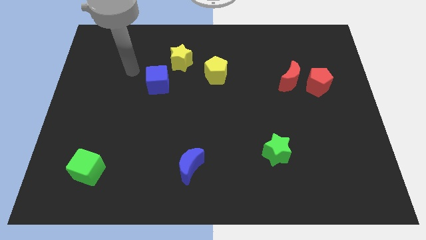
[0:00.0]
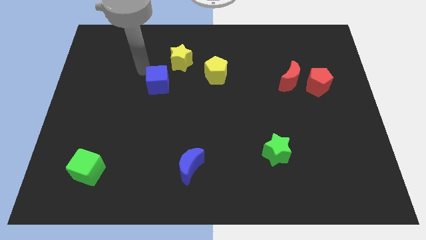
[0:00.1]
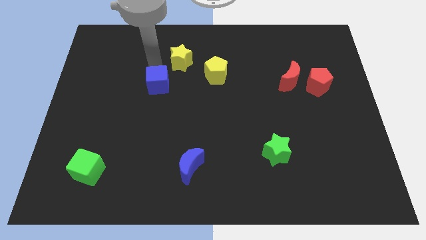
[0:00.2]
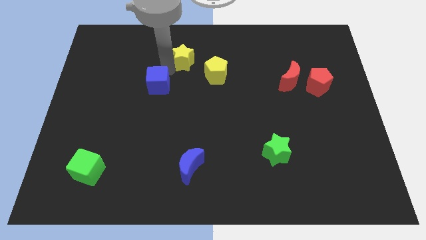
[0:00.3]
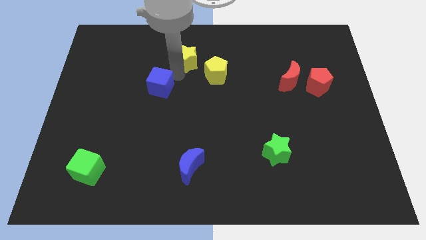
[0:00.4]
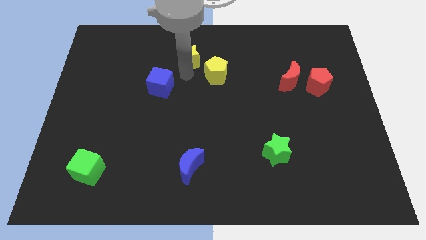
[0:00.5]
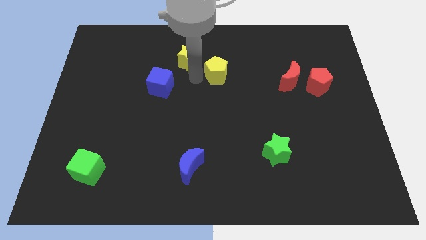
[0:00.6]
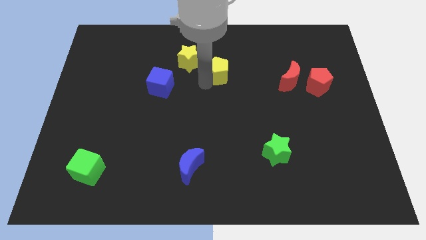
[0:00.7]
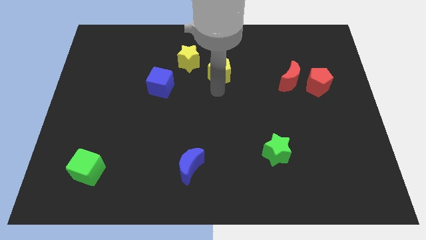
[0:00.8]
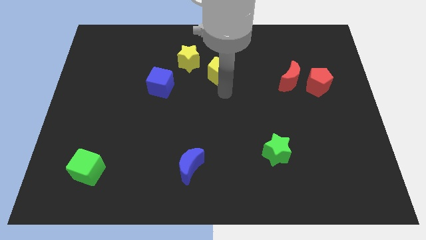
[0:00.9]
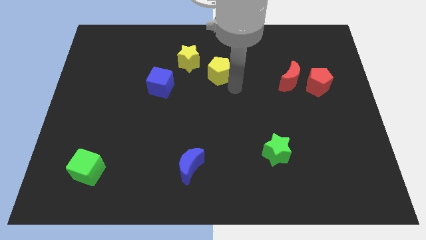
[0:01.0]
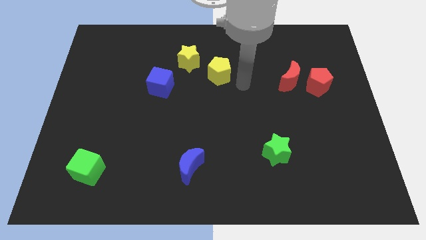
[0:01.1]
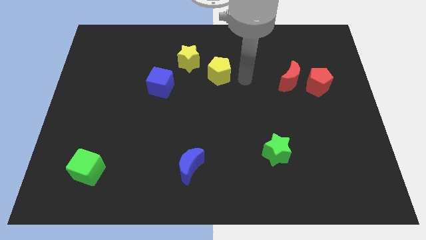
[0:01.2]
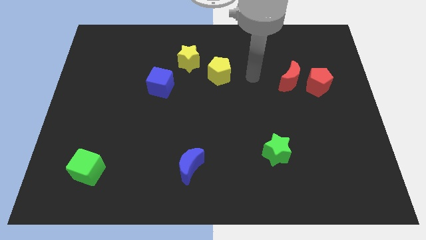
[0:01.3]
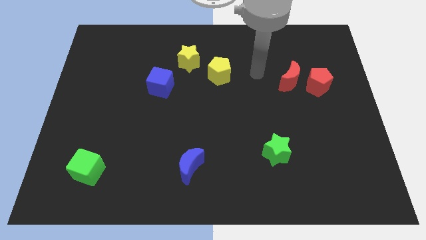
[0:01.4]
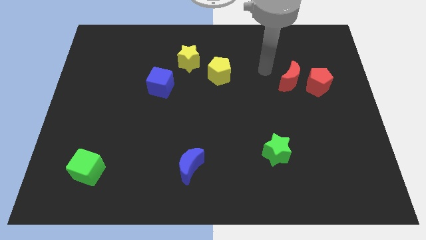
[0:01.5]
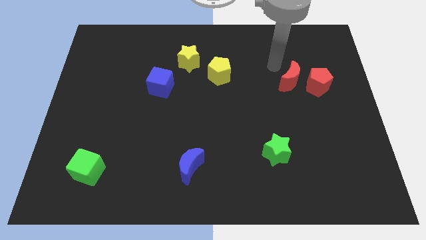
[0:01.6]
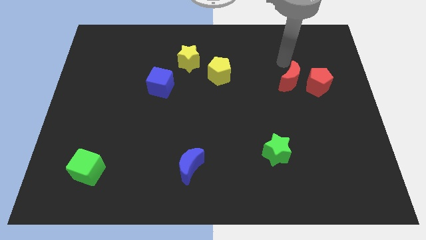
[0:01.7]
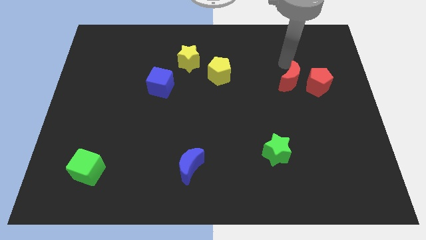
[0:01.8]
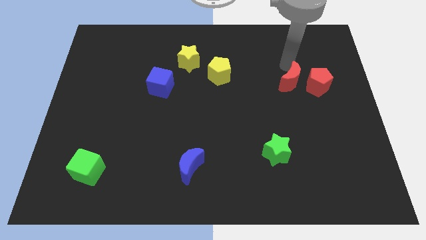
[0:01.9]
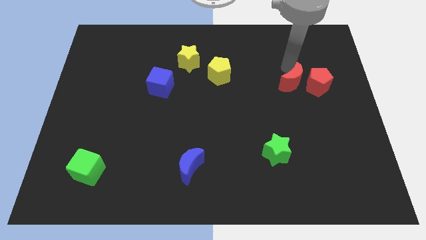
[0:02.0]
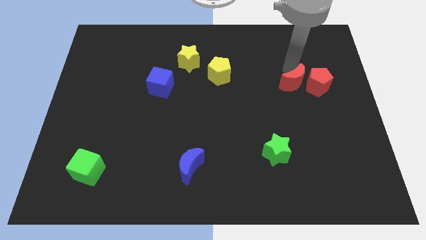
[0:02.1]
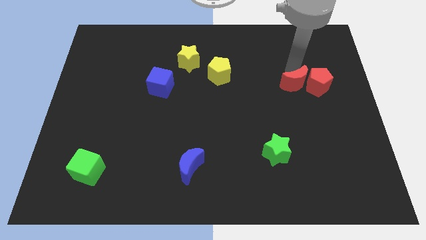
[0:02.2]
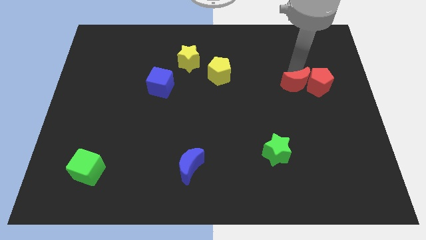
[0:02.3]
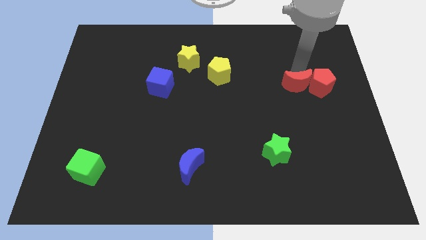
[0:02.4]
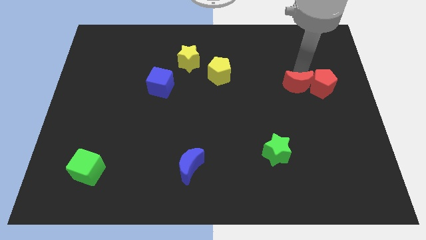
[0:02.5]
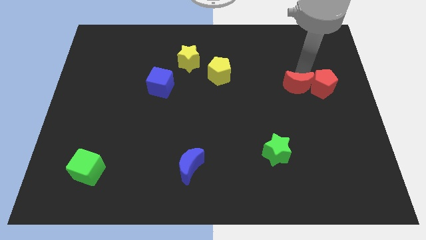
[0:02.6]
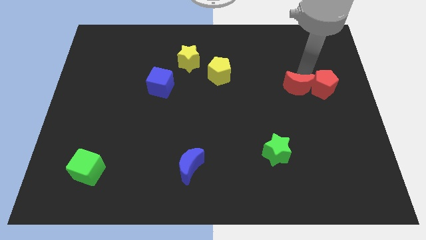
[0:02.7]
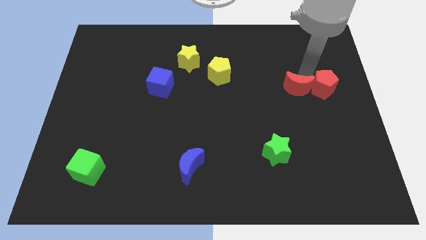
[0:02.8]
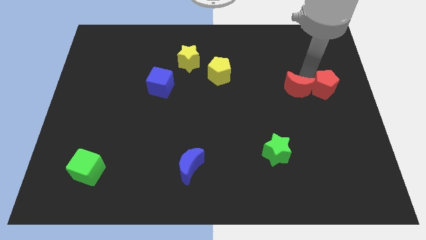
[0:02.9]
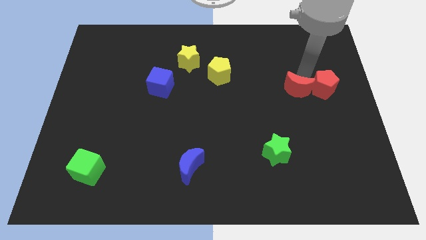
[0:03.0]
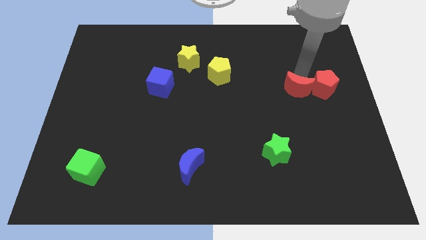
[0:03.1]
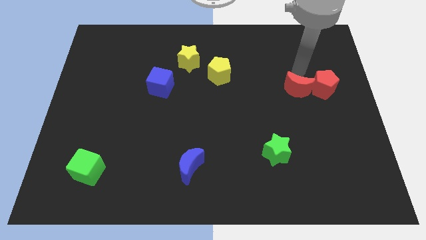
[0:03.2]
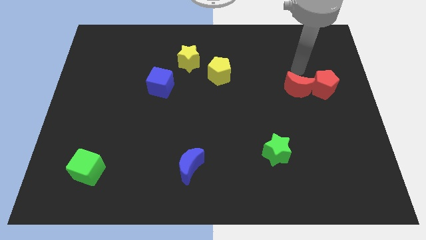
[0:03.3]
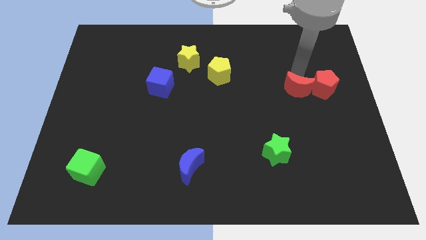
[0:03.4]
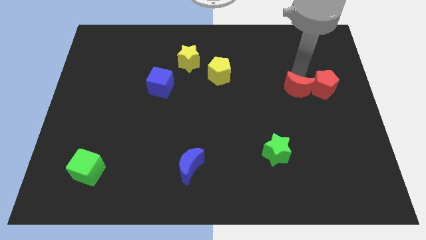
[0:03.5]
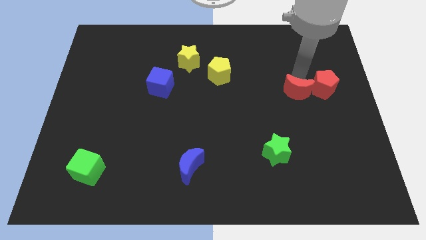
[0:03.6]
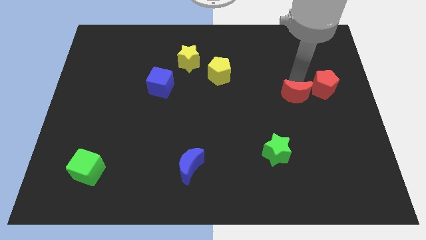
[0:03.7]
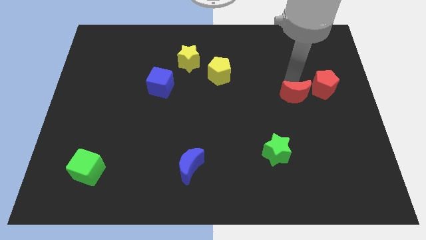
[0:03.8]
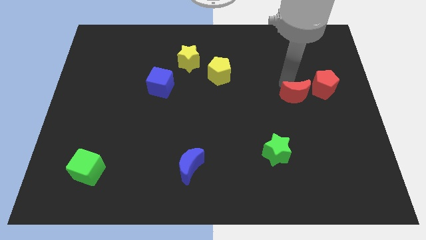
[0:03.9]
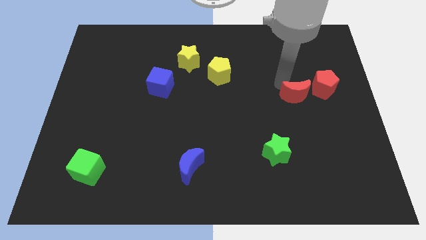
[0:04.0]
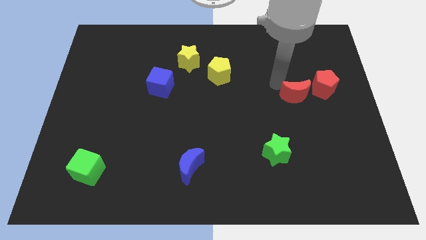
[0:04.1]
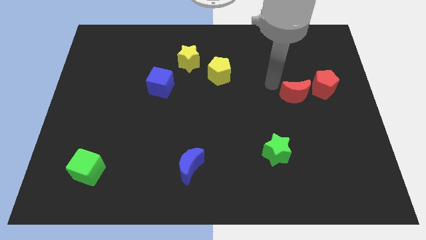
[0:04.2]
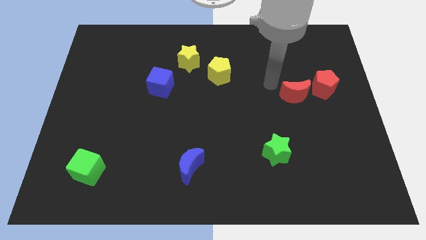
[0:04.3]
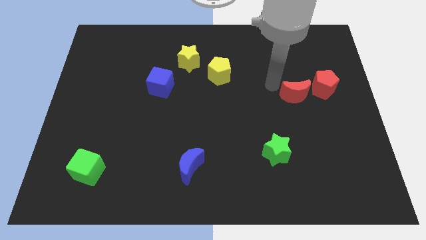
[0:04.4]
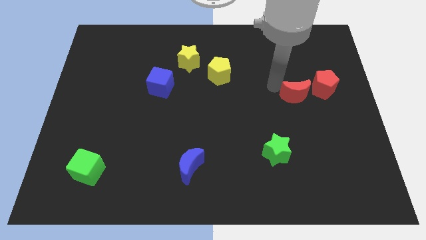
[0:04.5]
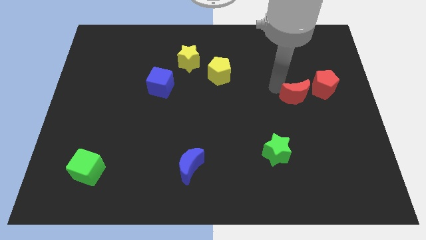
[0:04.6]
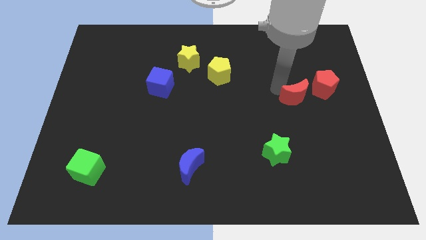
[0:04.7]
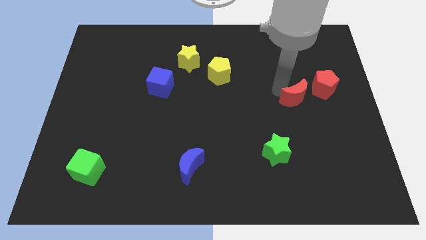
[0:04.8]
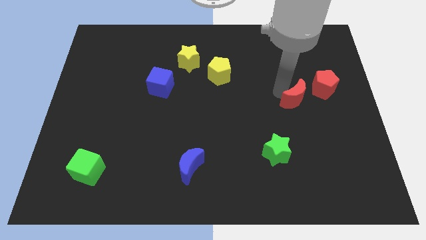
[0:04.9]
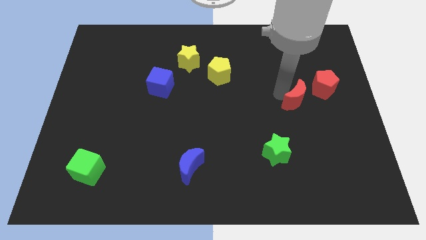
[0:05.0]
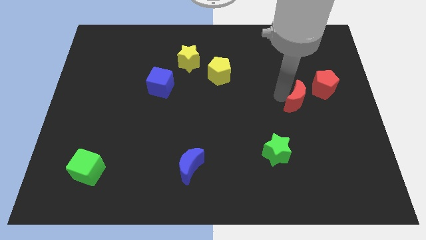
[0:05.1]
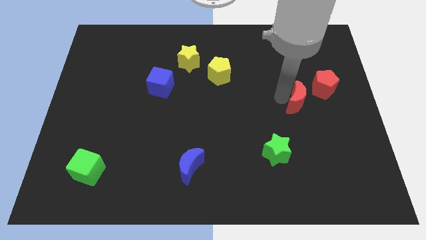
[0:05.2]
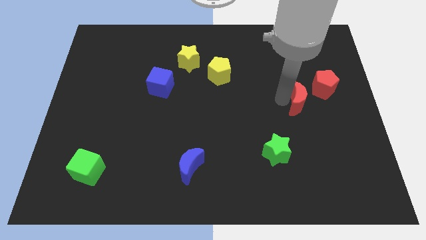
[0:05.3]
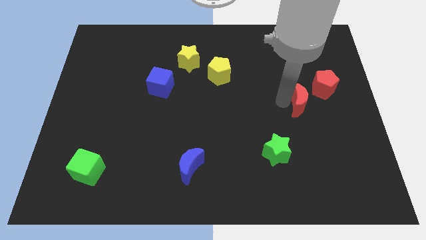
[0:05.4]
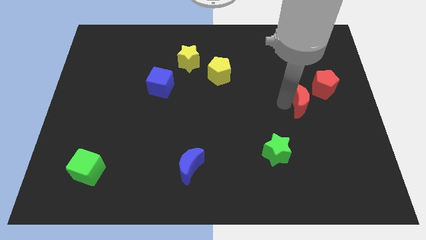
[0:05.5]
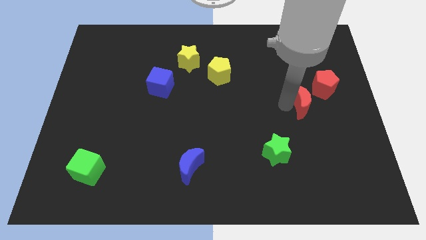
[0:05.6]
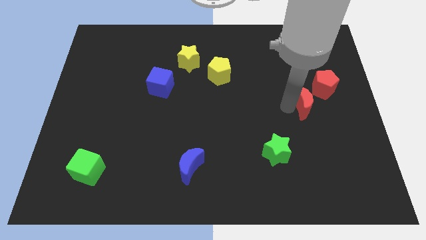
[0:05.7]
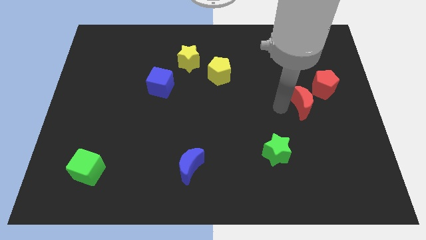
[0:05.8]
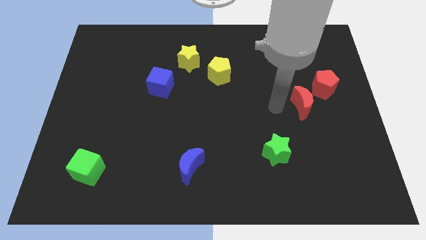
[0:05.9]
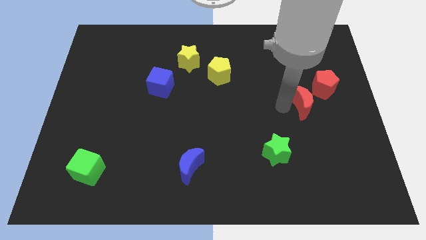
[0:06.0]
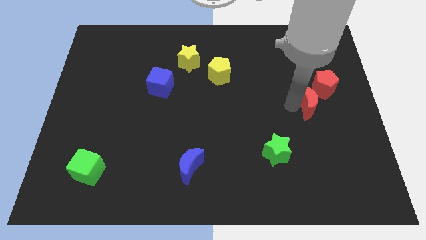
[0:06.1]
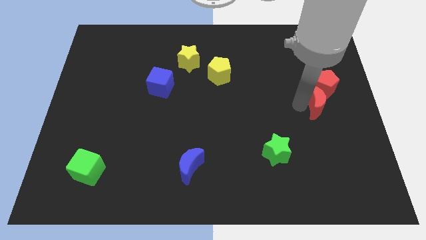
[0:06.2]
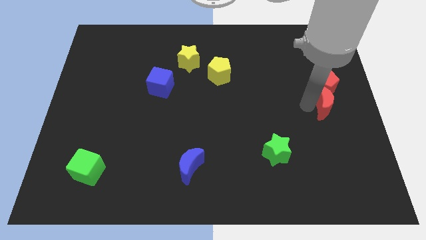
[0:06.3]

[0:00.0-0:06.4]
slide the red moon to the center right
